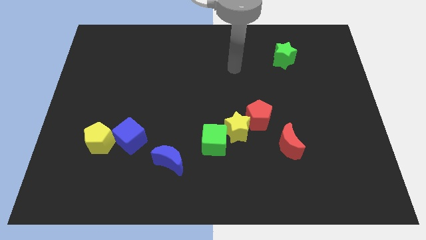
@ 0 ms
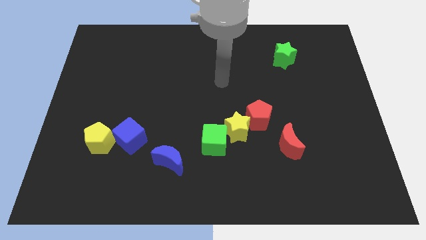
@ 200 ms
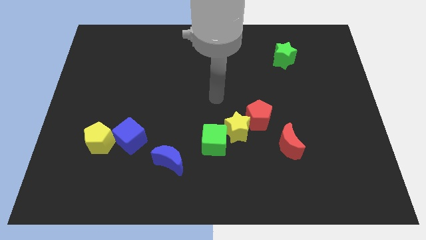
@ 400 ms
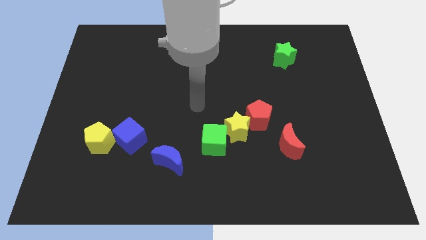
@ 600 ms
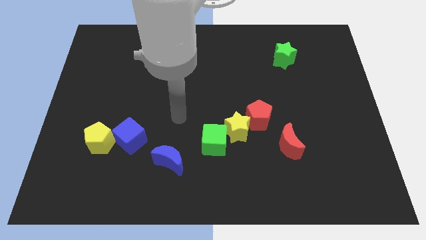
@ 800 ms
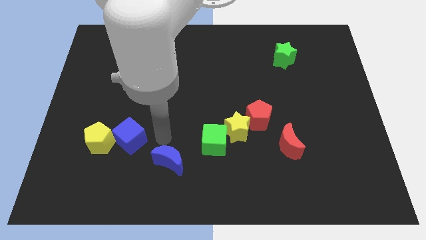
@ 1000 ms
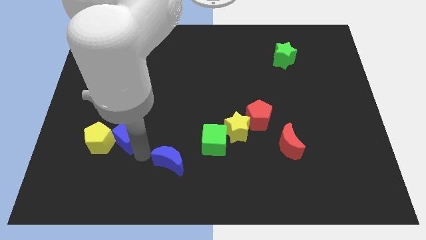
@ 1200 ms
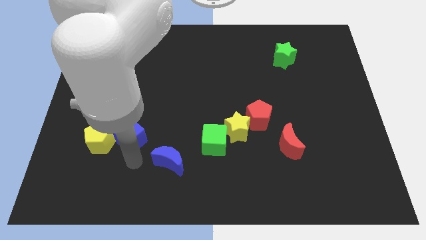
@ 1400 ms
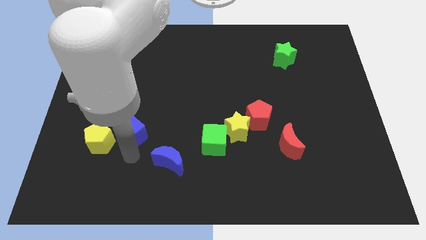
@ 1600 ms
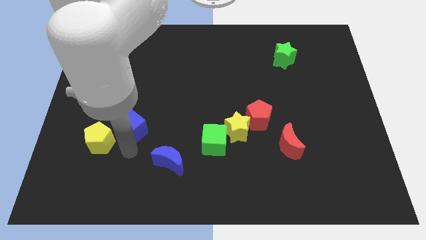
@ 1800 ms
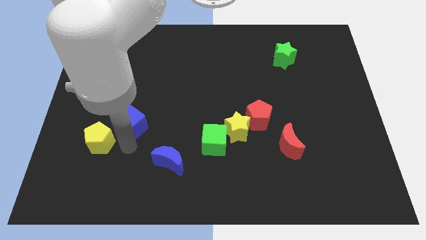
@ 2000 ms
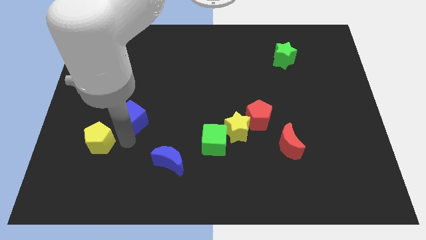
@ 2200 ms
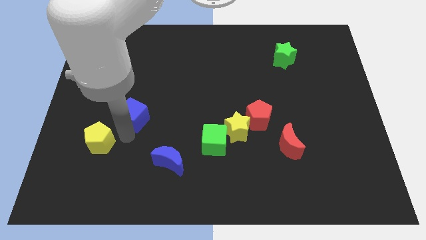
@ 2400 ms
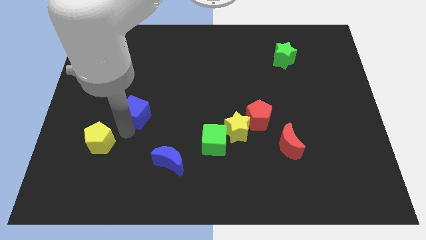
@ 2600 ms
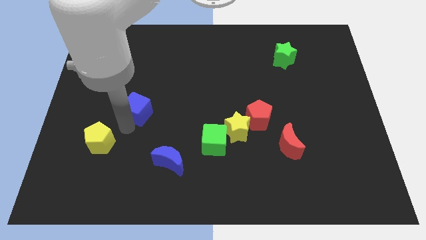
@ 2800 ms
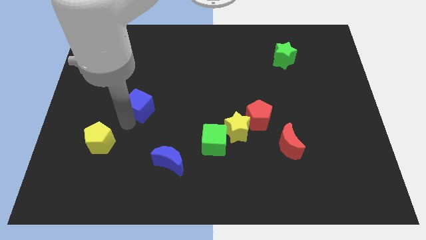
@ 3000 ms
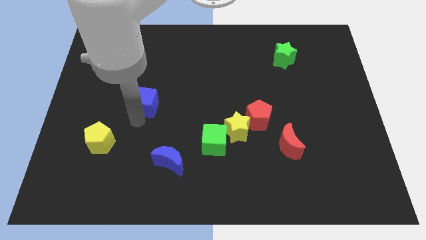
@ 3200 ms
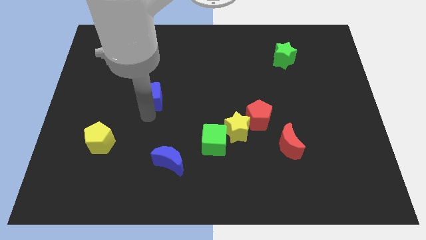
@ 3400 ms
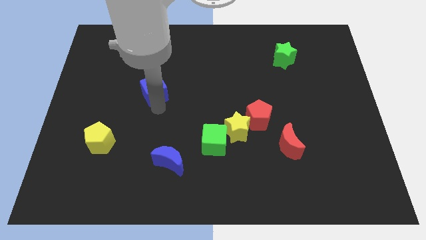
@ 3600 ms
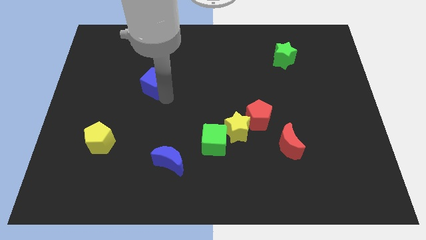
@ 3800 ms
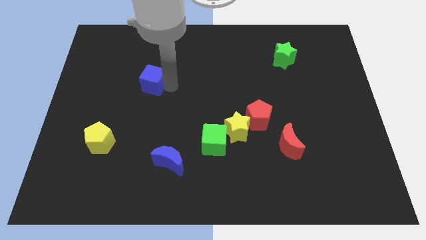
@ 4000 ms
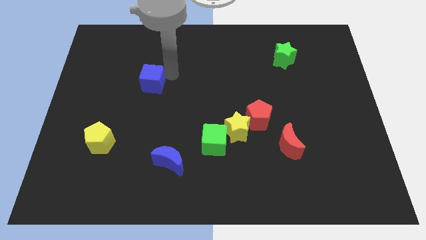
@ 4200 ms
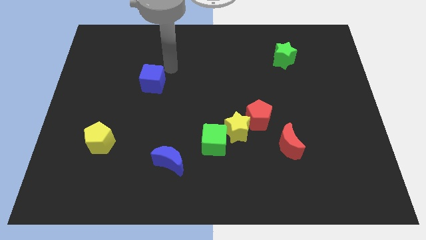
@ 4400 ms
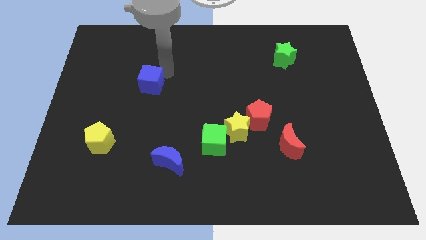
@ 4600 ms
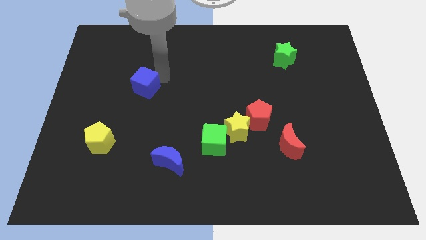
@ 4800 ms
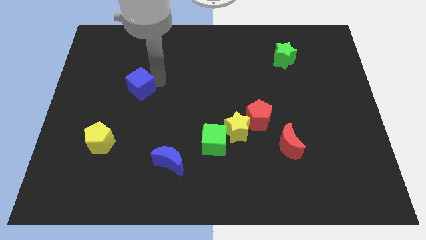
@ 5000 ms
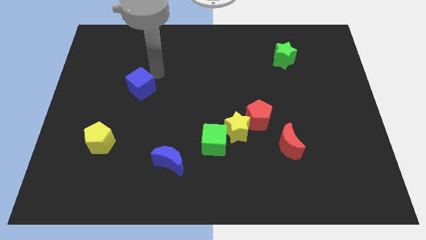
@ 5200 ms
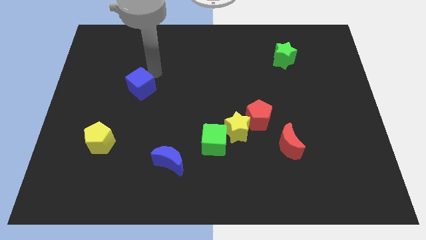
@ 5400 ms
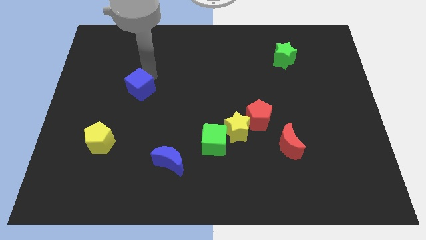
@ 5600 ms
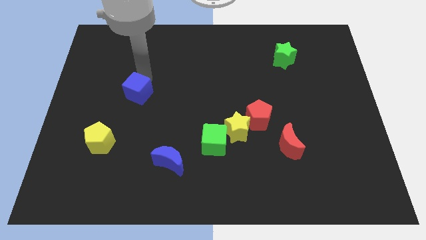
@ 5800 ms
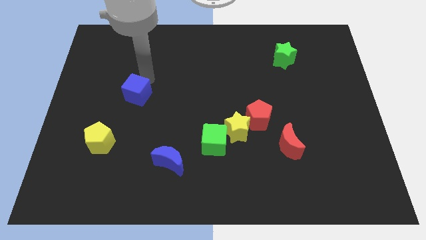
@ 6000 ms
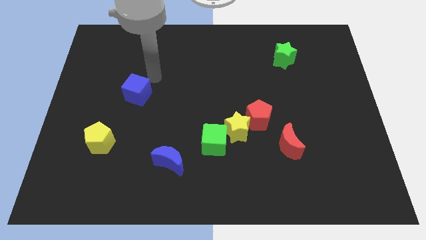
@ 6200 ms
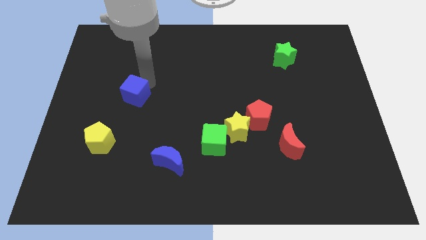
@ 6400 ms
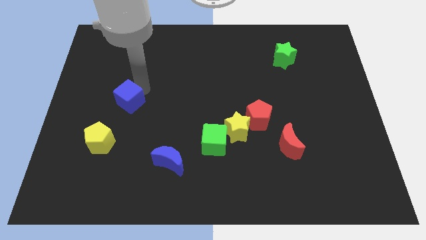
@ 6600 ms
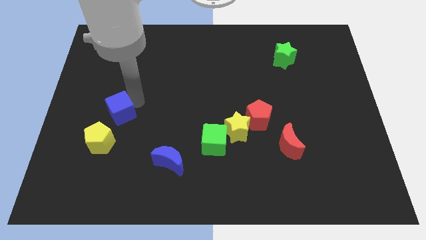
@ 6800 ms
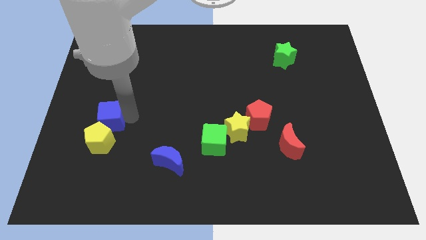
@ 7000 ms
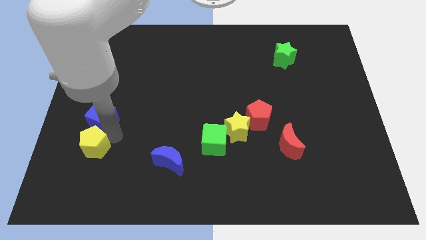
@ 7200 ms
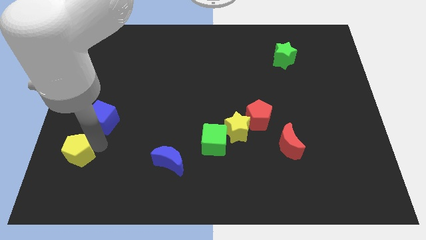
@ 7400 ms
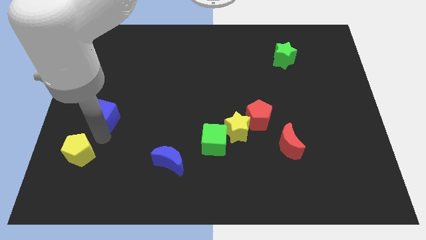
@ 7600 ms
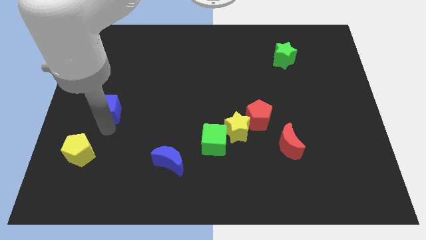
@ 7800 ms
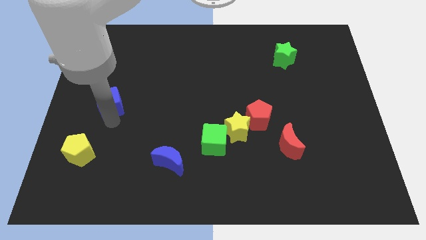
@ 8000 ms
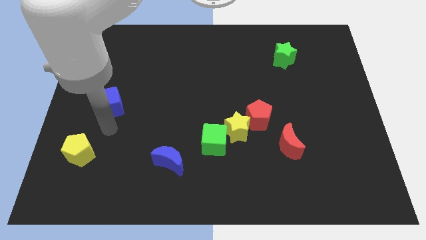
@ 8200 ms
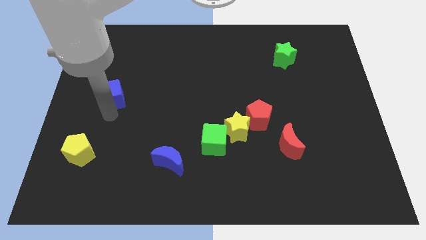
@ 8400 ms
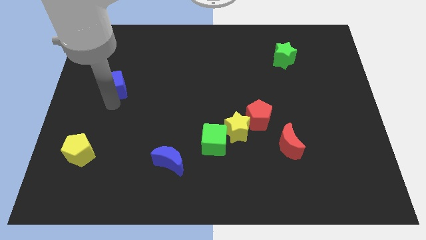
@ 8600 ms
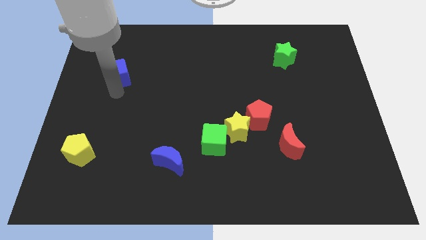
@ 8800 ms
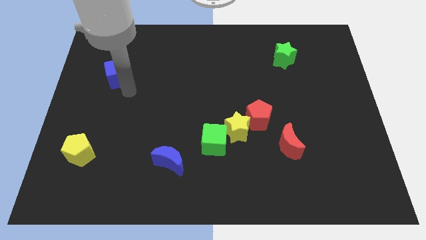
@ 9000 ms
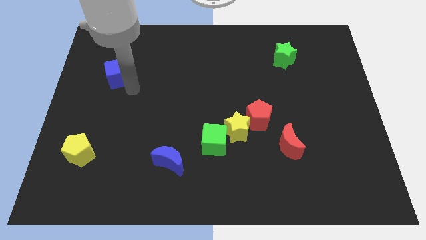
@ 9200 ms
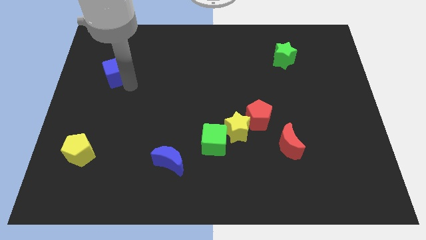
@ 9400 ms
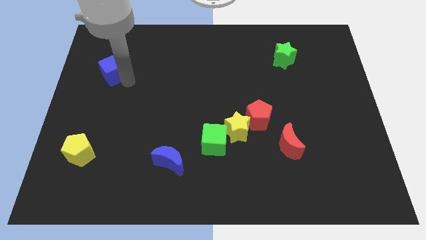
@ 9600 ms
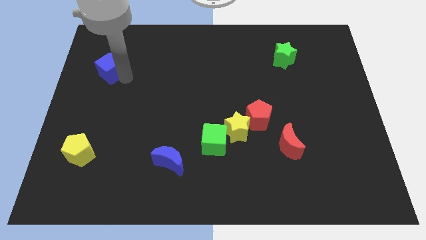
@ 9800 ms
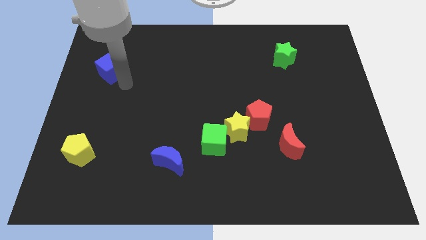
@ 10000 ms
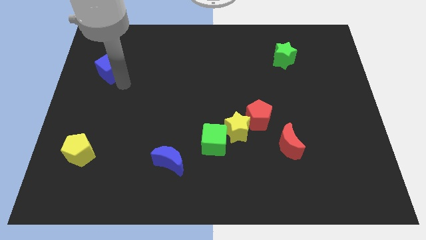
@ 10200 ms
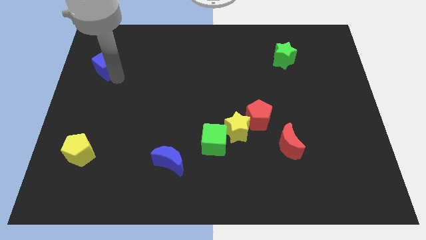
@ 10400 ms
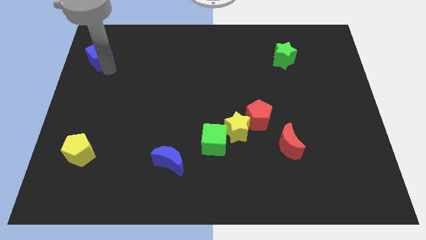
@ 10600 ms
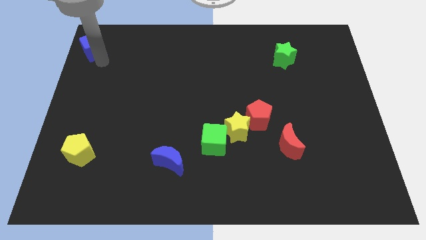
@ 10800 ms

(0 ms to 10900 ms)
push the blue cube to the top left of the board

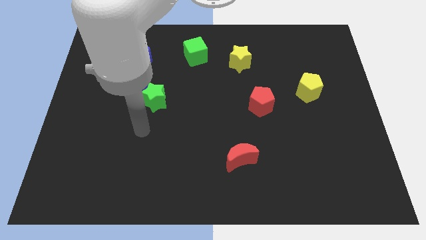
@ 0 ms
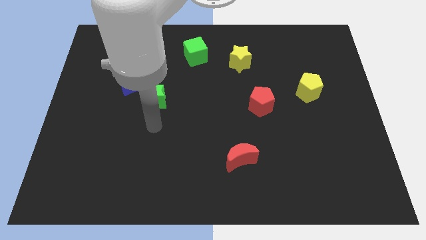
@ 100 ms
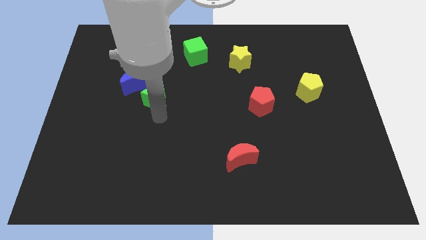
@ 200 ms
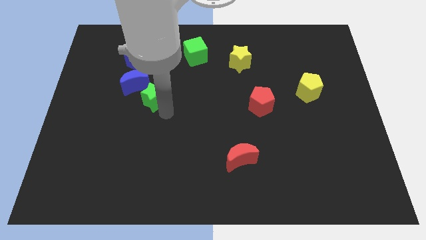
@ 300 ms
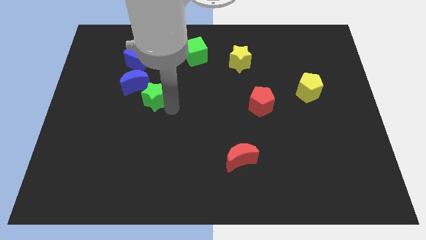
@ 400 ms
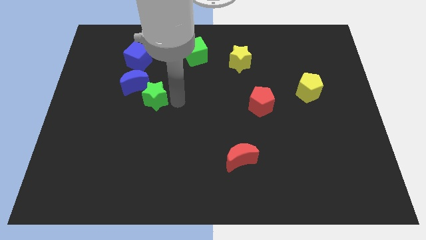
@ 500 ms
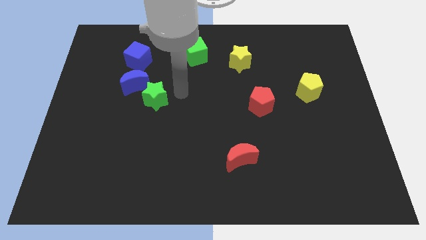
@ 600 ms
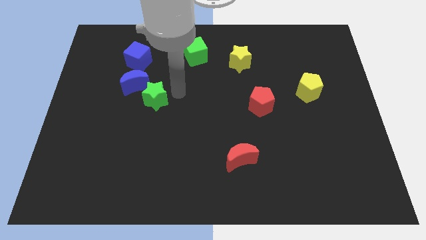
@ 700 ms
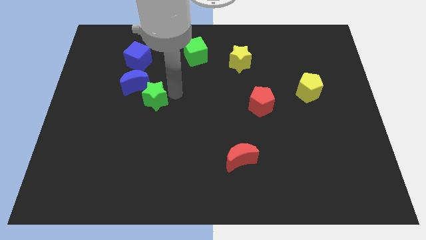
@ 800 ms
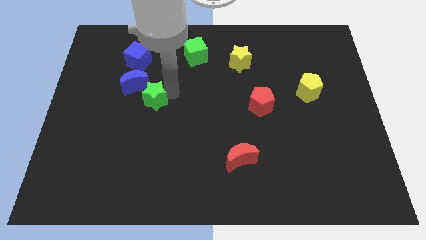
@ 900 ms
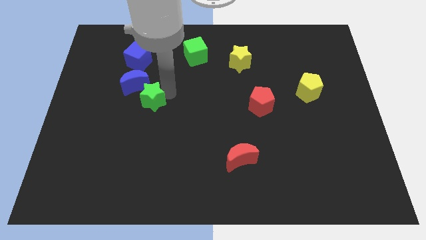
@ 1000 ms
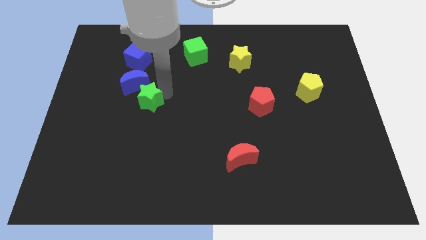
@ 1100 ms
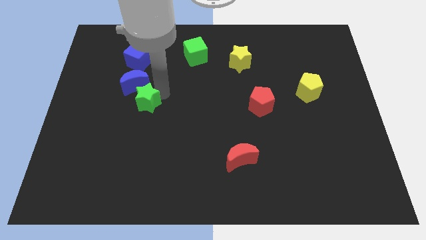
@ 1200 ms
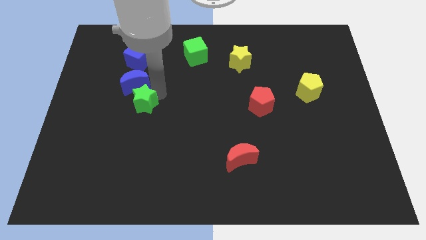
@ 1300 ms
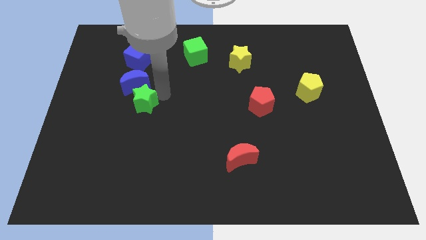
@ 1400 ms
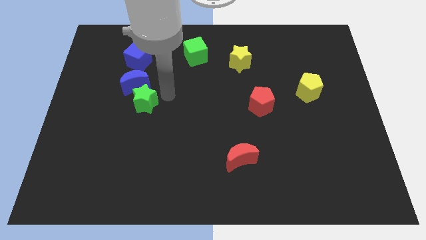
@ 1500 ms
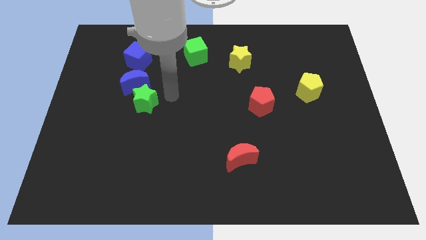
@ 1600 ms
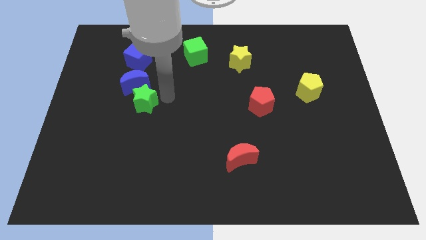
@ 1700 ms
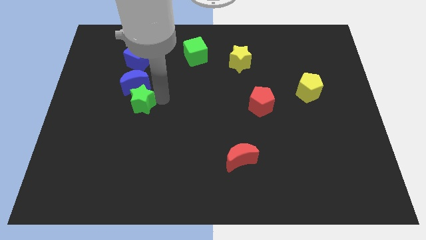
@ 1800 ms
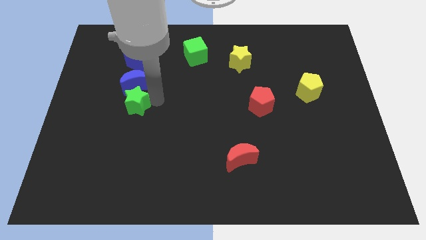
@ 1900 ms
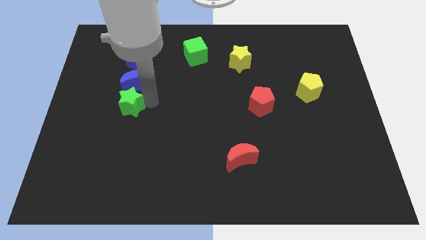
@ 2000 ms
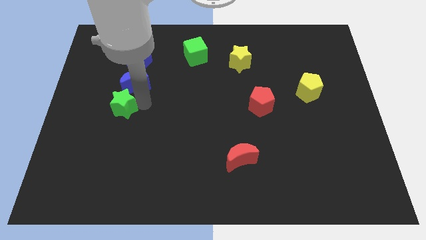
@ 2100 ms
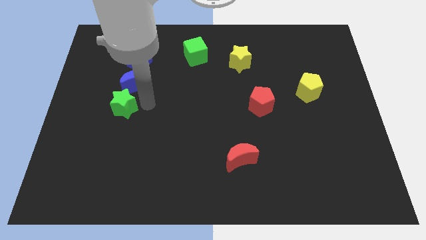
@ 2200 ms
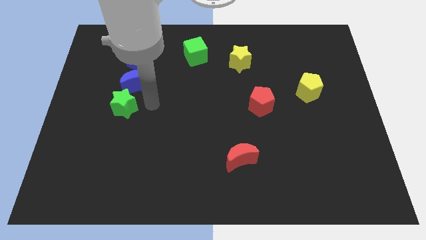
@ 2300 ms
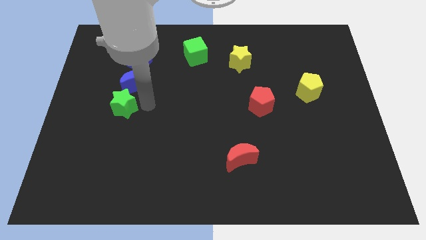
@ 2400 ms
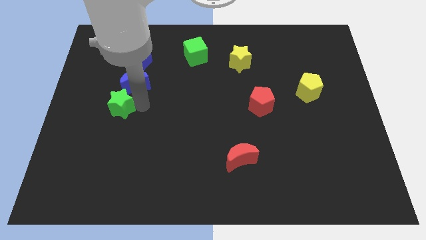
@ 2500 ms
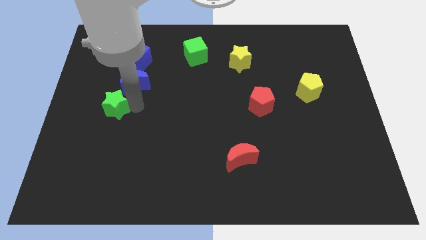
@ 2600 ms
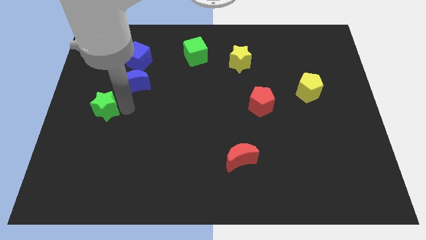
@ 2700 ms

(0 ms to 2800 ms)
slide the green star to the center left
